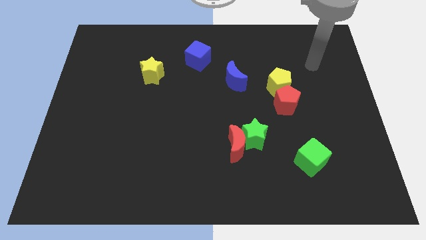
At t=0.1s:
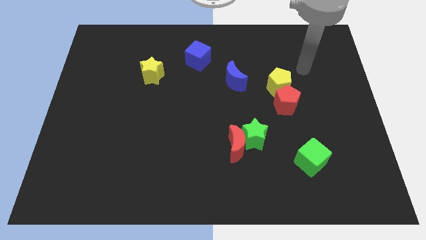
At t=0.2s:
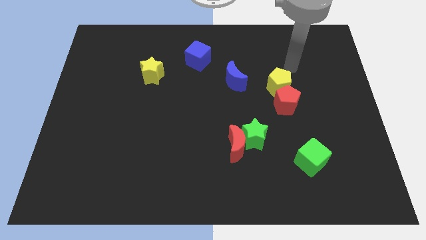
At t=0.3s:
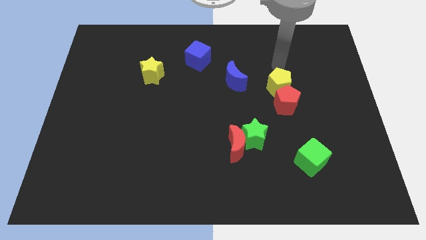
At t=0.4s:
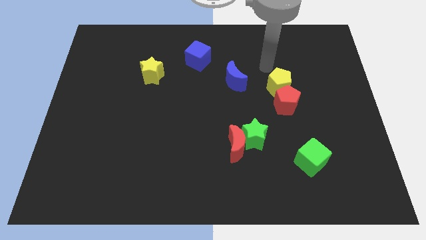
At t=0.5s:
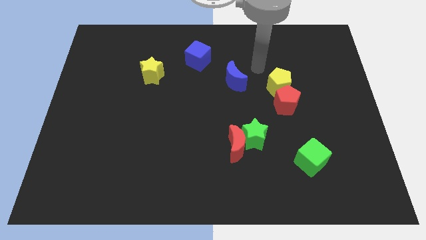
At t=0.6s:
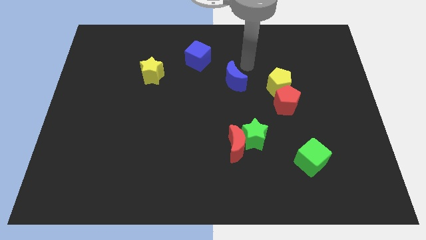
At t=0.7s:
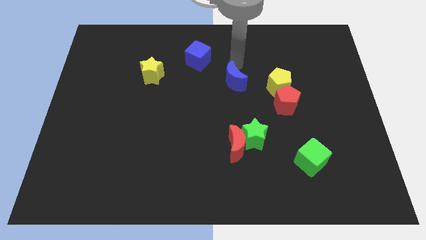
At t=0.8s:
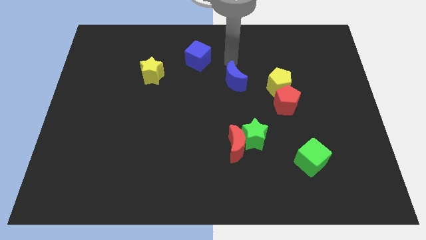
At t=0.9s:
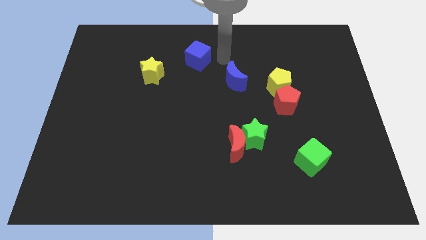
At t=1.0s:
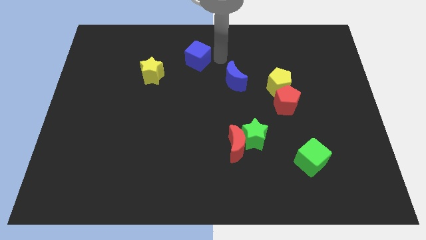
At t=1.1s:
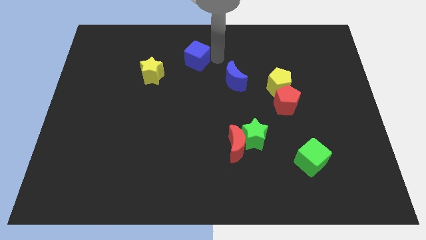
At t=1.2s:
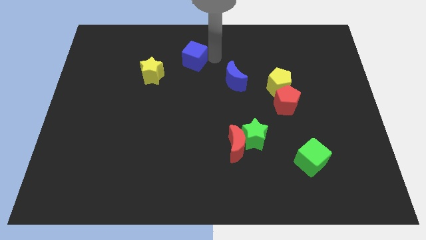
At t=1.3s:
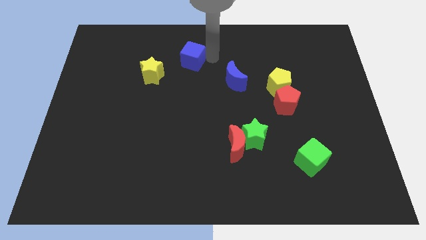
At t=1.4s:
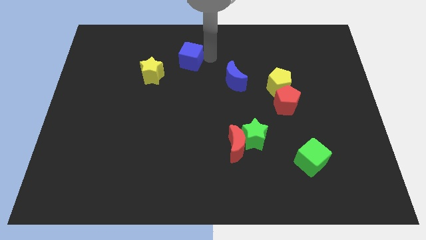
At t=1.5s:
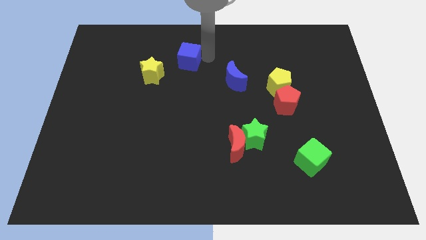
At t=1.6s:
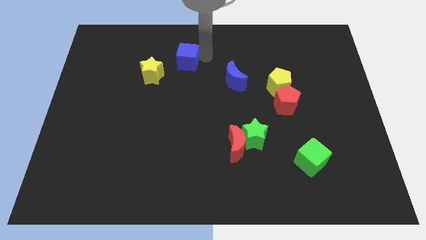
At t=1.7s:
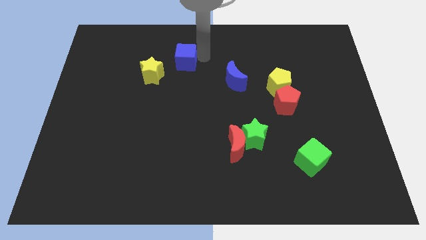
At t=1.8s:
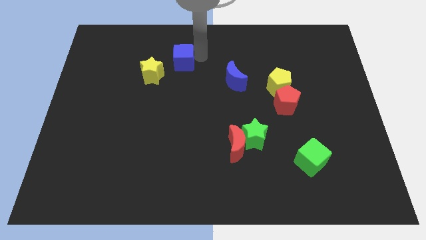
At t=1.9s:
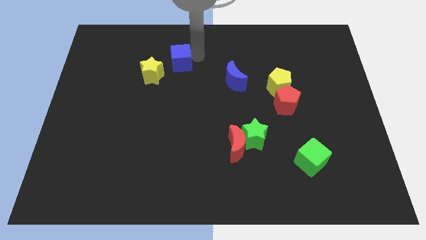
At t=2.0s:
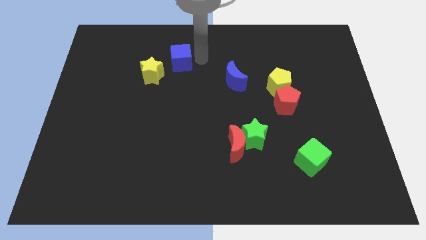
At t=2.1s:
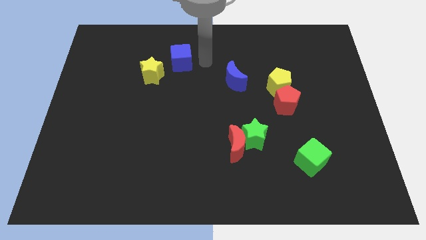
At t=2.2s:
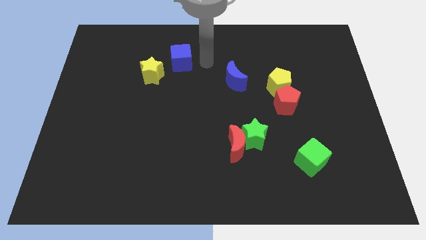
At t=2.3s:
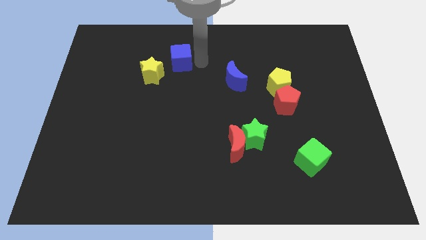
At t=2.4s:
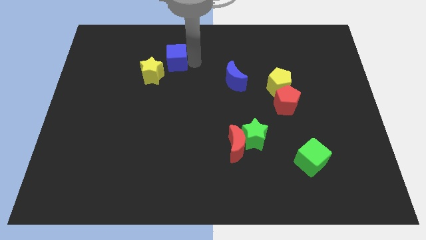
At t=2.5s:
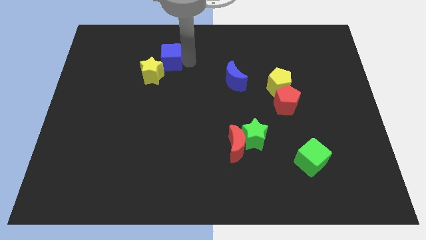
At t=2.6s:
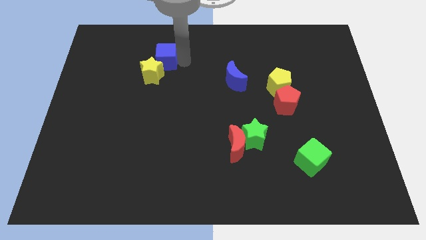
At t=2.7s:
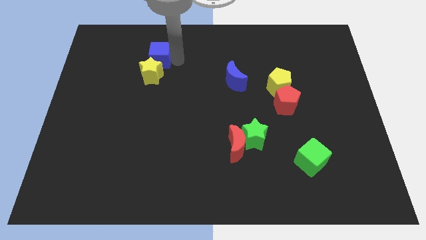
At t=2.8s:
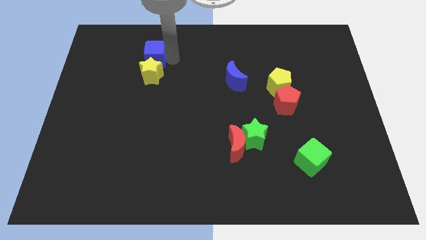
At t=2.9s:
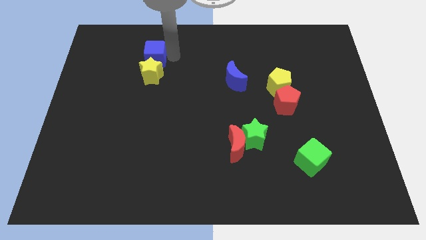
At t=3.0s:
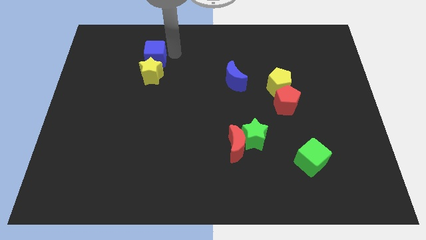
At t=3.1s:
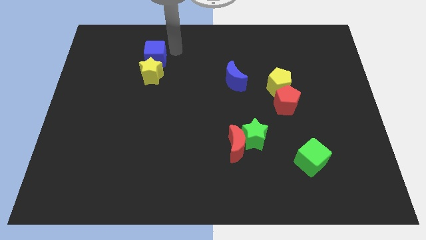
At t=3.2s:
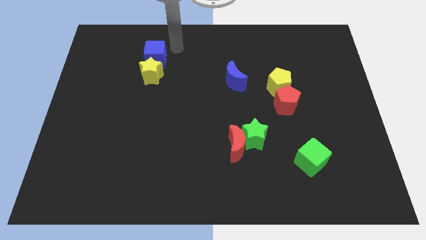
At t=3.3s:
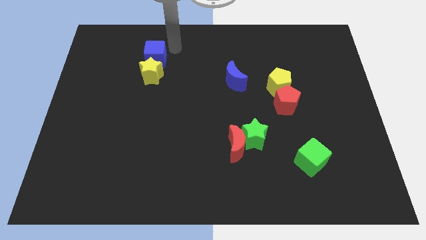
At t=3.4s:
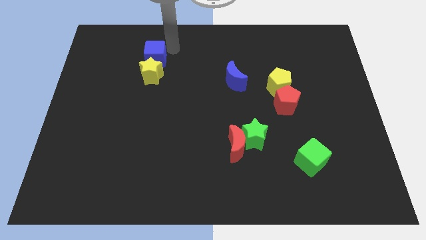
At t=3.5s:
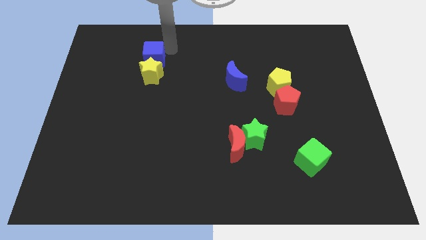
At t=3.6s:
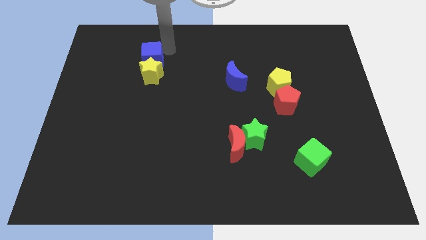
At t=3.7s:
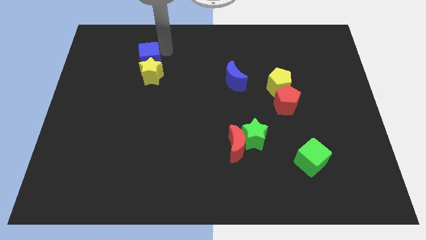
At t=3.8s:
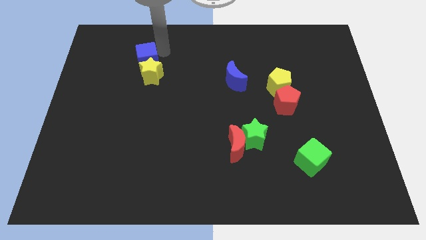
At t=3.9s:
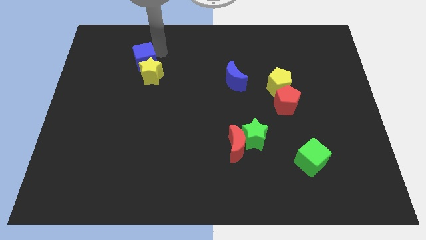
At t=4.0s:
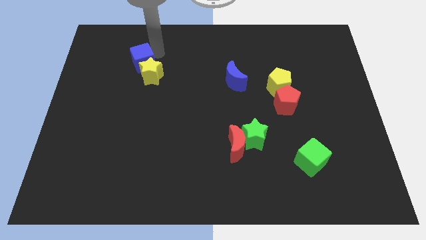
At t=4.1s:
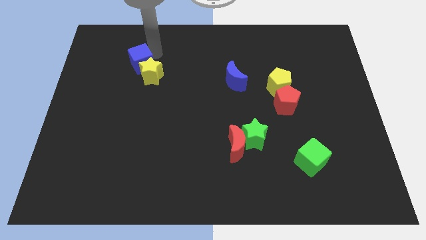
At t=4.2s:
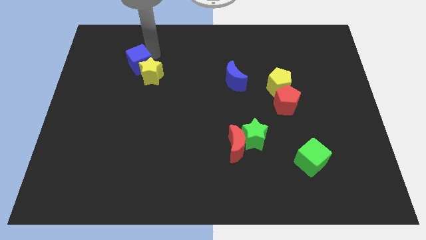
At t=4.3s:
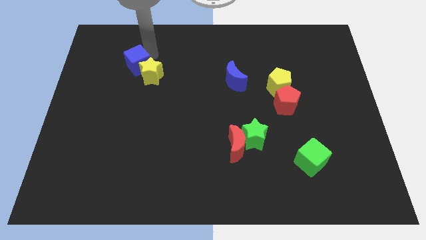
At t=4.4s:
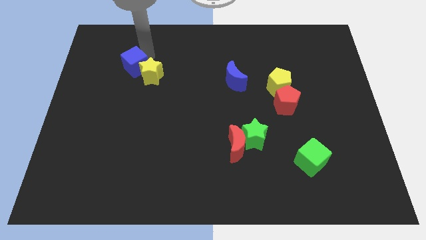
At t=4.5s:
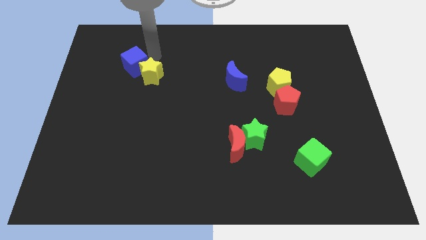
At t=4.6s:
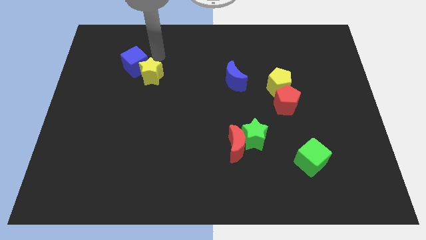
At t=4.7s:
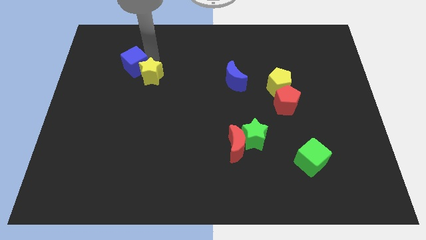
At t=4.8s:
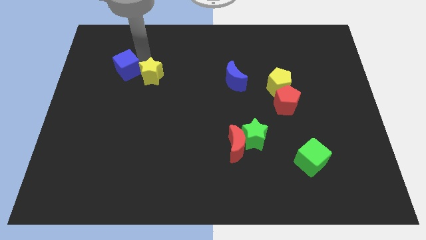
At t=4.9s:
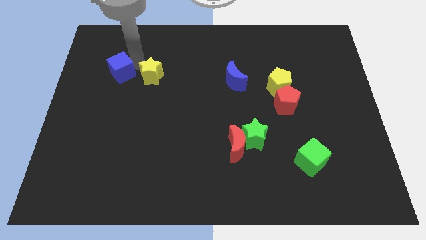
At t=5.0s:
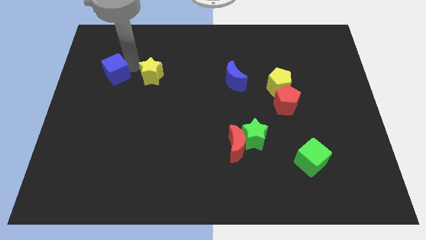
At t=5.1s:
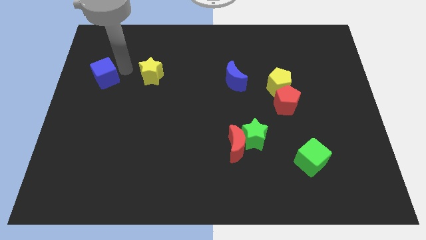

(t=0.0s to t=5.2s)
push the blue cube to the left side of the board

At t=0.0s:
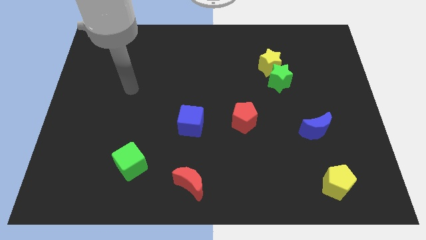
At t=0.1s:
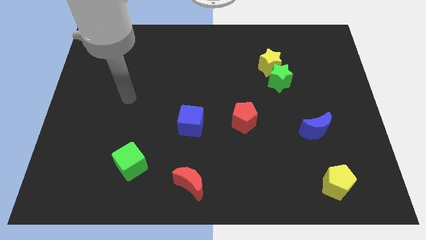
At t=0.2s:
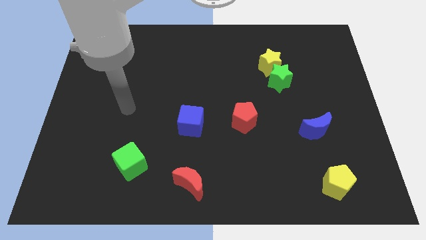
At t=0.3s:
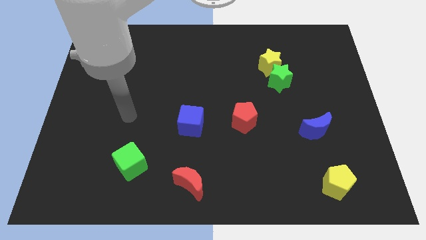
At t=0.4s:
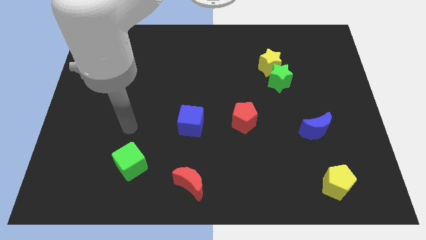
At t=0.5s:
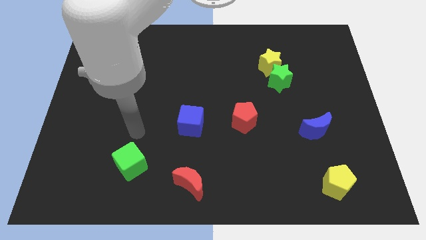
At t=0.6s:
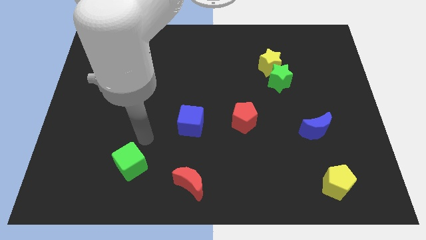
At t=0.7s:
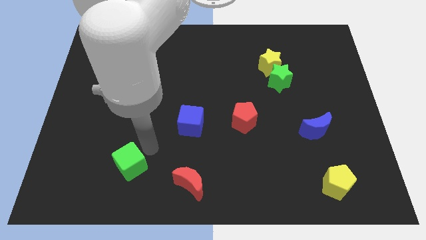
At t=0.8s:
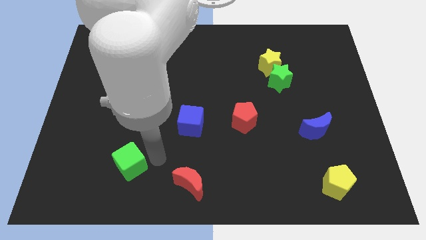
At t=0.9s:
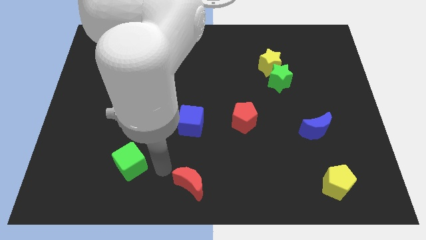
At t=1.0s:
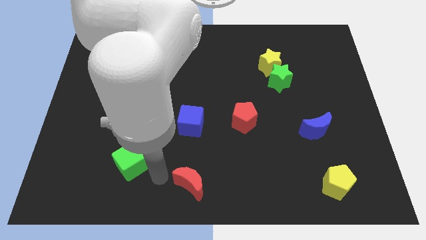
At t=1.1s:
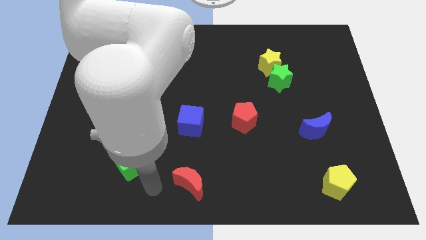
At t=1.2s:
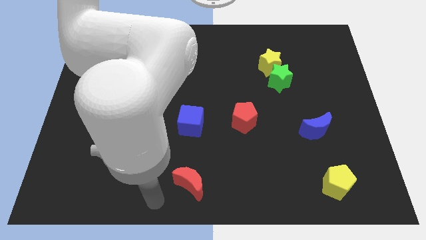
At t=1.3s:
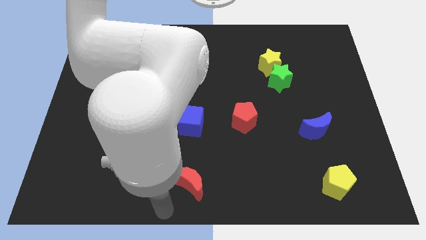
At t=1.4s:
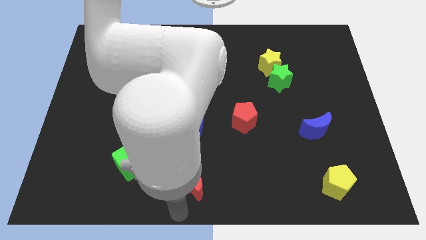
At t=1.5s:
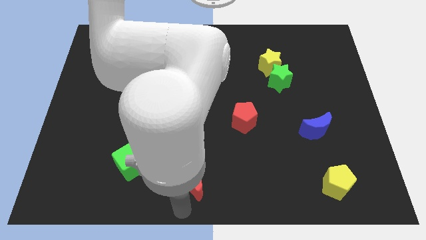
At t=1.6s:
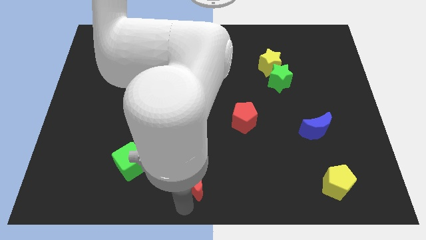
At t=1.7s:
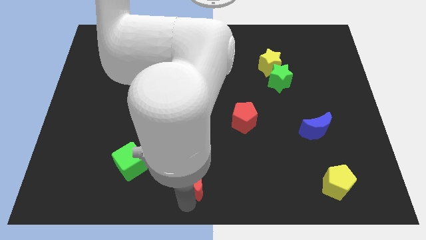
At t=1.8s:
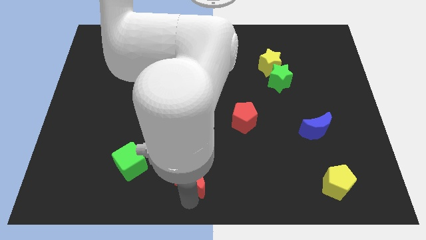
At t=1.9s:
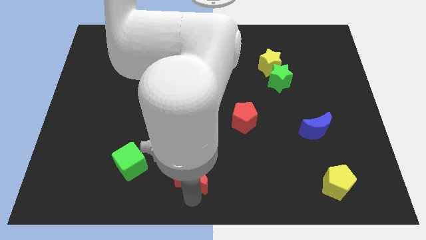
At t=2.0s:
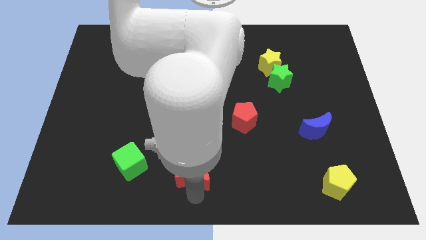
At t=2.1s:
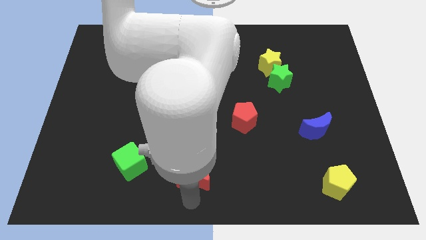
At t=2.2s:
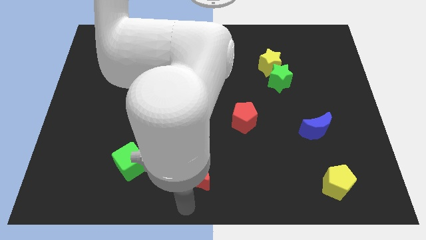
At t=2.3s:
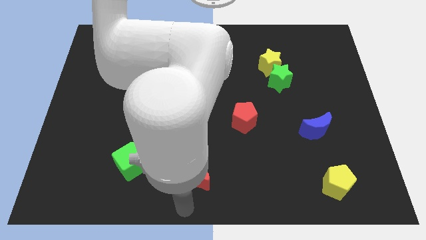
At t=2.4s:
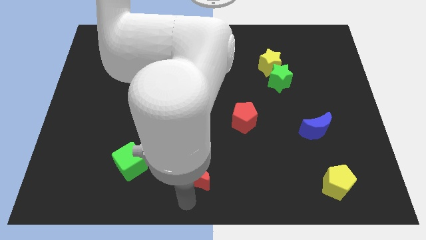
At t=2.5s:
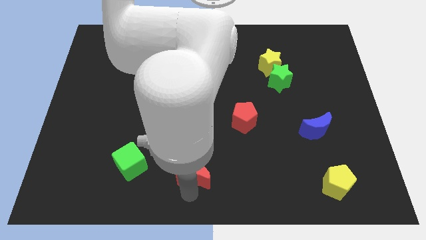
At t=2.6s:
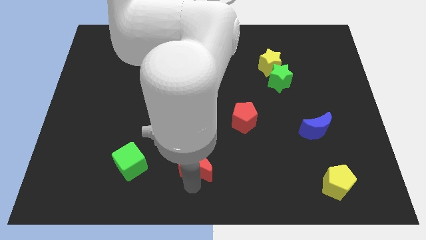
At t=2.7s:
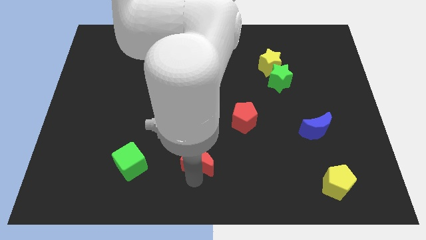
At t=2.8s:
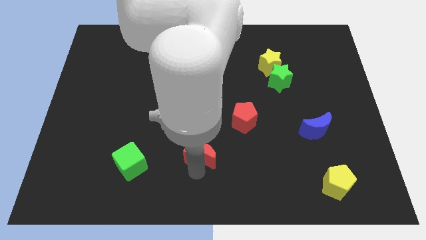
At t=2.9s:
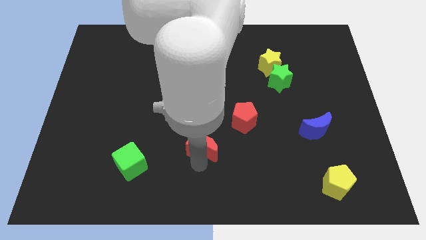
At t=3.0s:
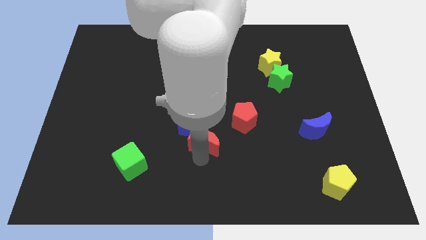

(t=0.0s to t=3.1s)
move the red moon to the middle of the board
